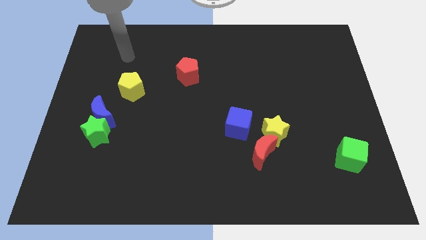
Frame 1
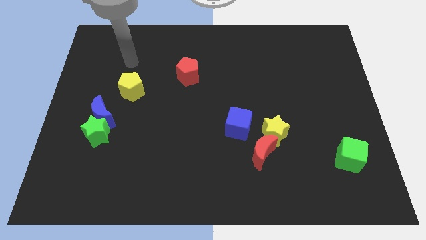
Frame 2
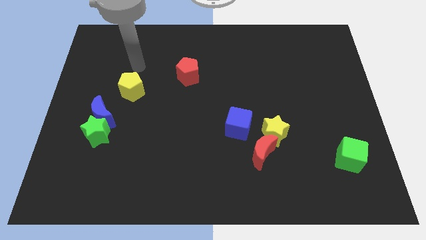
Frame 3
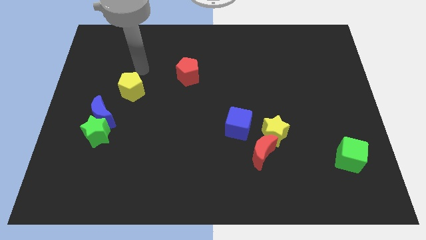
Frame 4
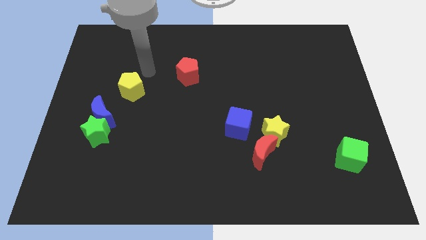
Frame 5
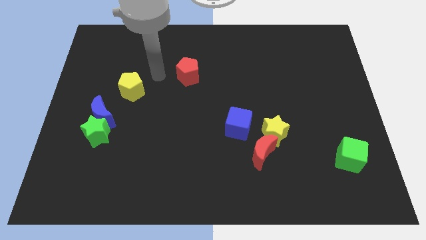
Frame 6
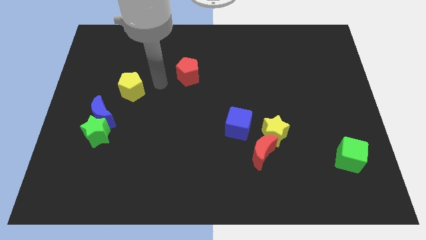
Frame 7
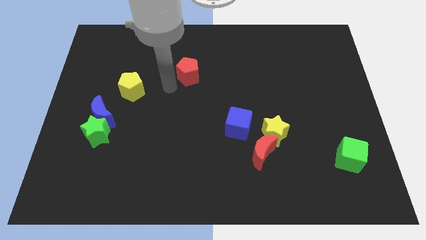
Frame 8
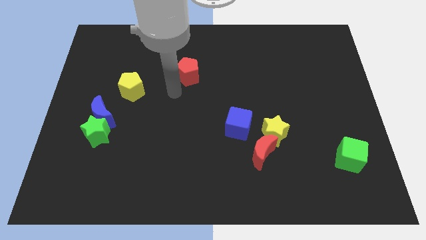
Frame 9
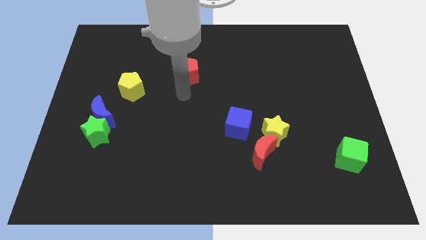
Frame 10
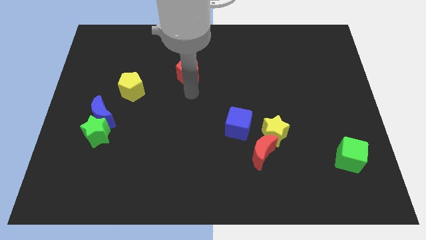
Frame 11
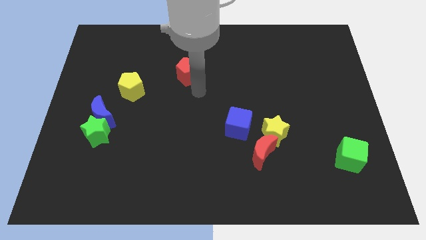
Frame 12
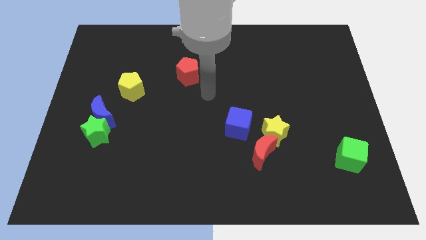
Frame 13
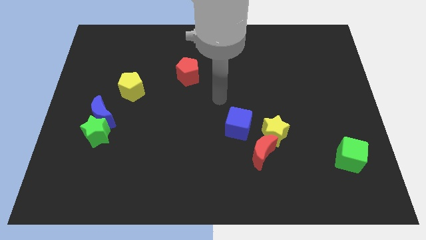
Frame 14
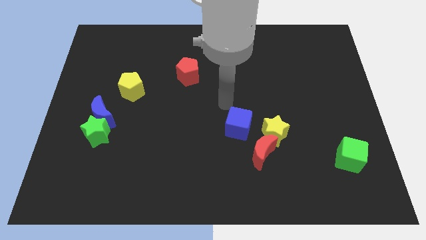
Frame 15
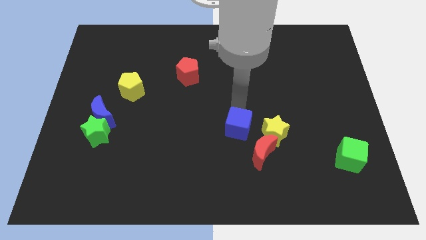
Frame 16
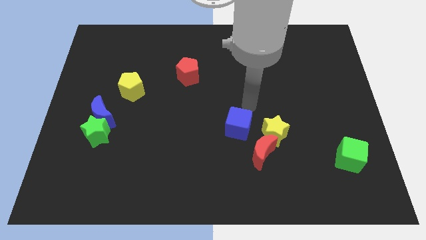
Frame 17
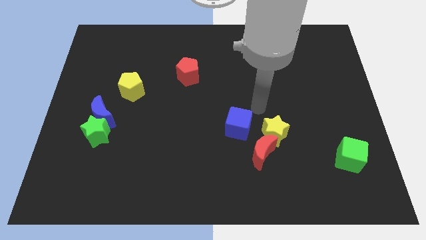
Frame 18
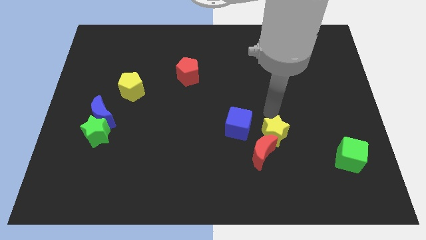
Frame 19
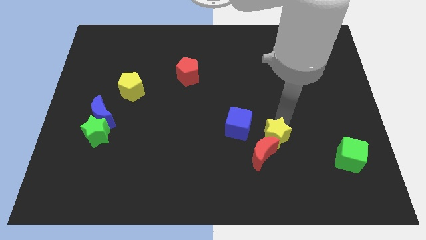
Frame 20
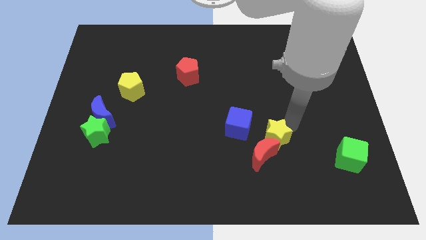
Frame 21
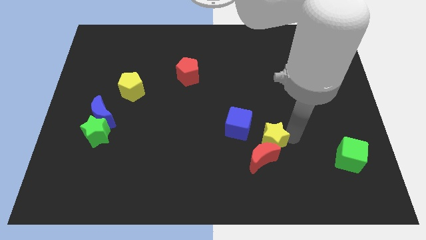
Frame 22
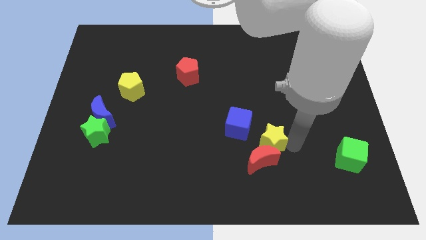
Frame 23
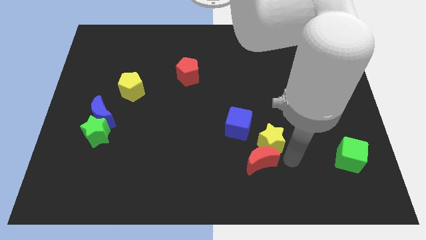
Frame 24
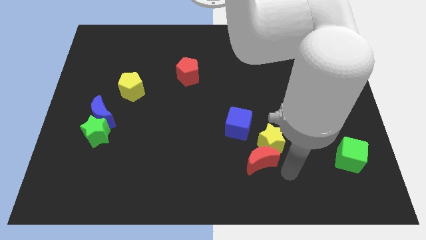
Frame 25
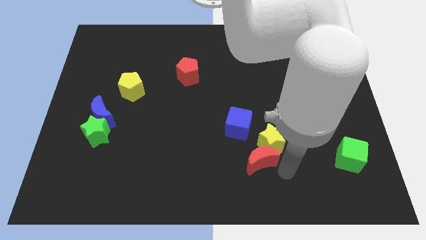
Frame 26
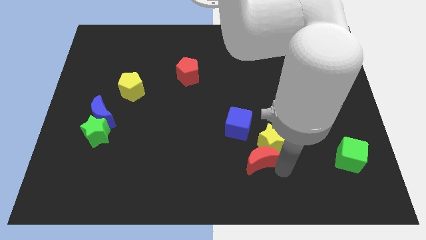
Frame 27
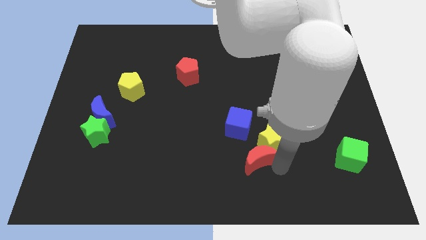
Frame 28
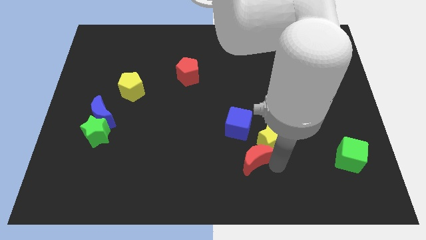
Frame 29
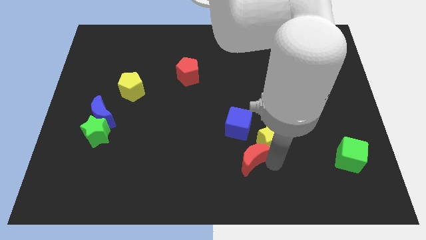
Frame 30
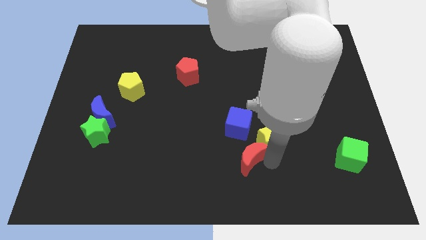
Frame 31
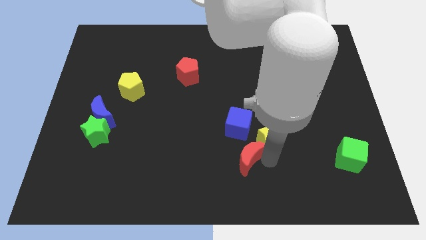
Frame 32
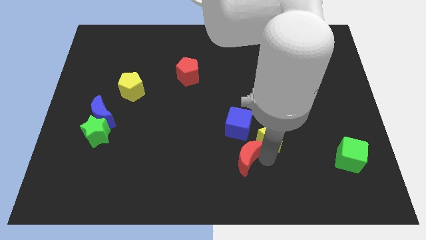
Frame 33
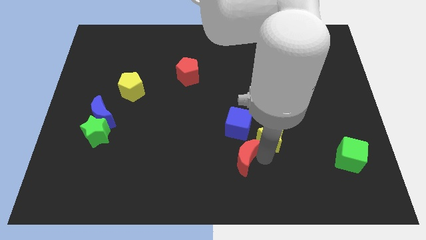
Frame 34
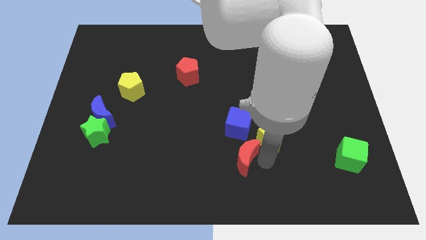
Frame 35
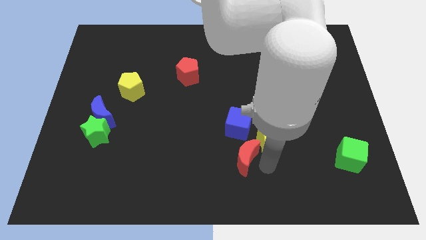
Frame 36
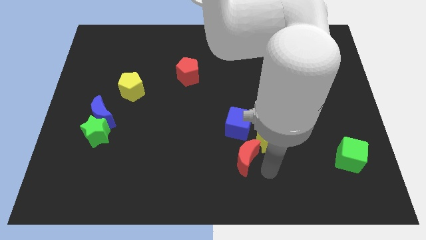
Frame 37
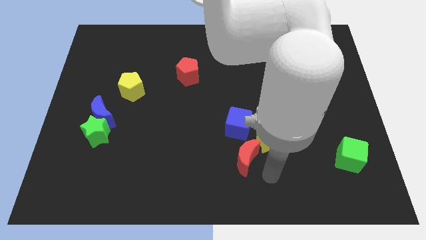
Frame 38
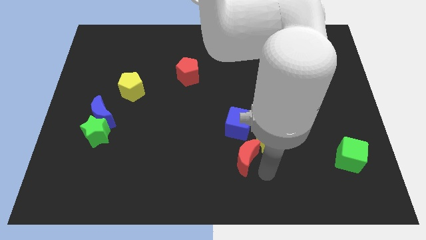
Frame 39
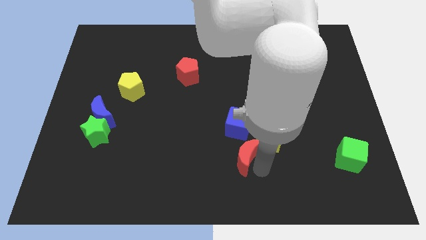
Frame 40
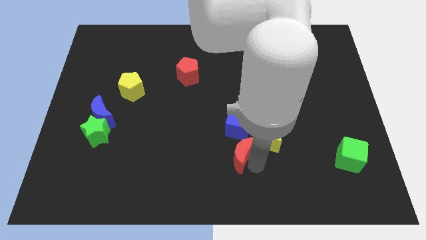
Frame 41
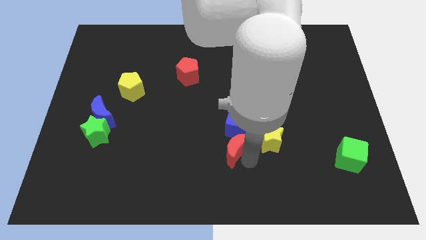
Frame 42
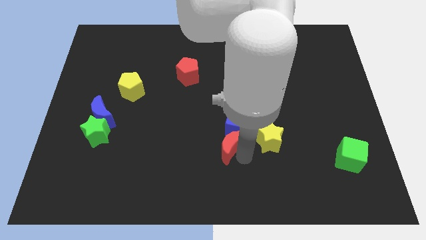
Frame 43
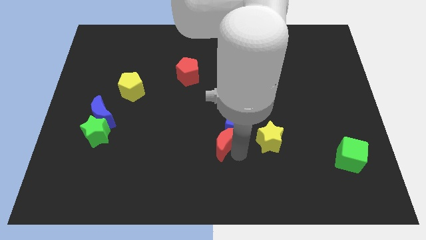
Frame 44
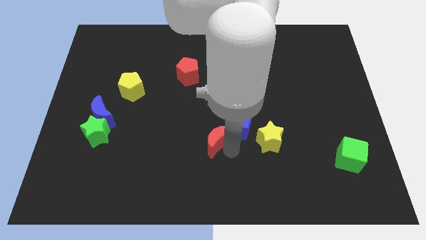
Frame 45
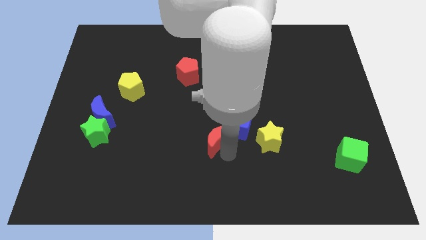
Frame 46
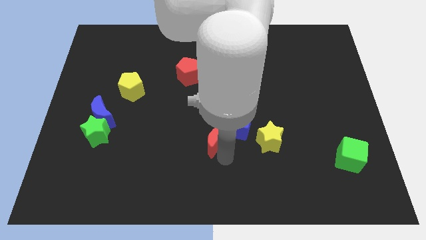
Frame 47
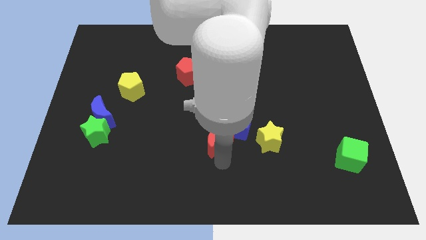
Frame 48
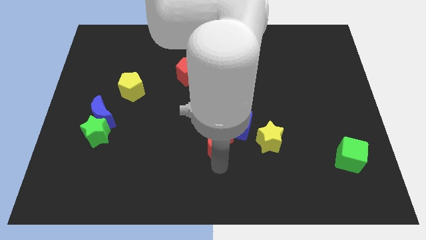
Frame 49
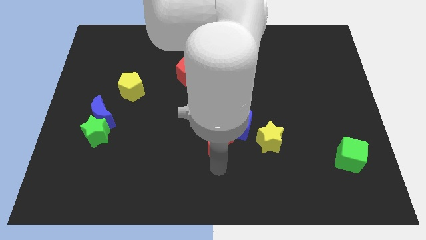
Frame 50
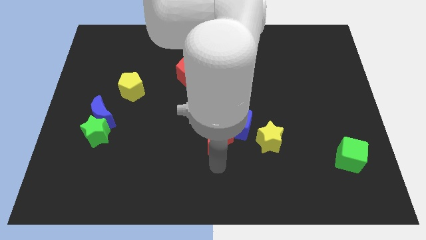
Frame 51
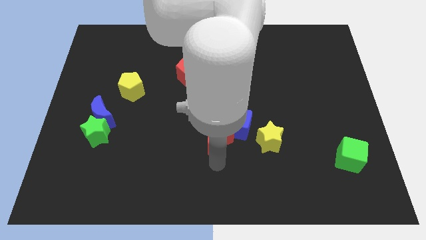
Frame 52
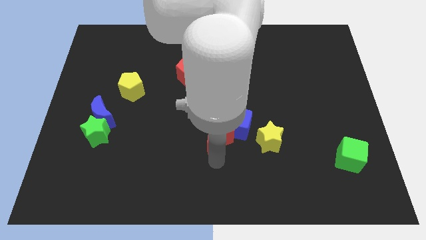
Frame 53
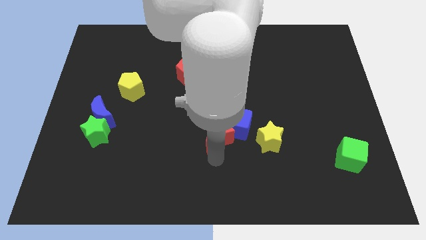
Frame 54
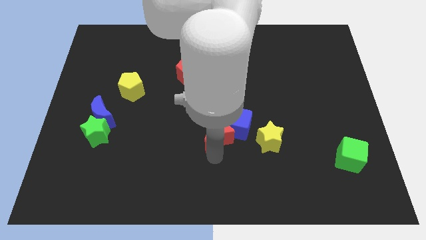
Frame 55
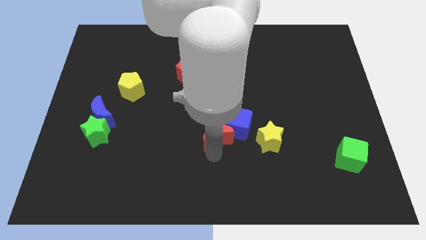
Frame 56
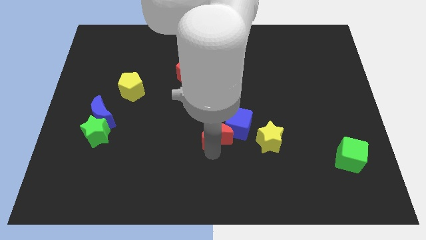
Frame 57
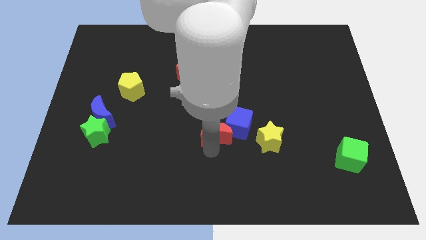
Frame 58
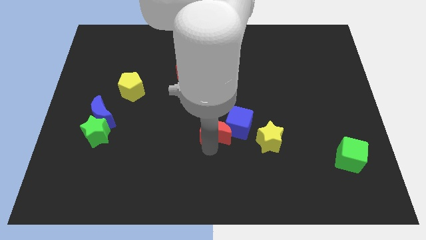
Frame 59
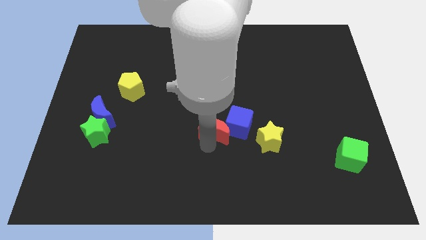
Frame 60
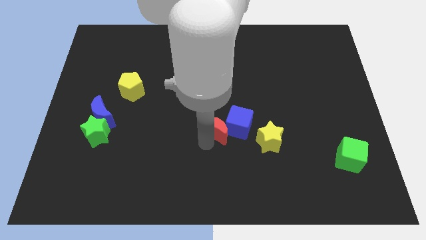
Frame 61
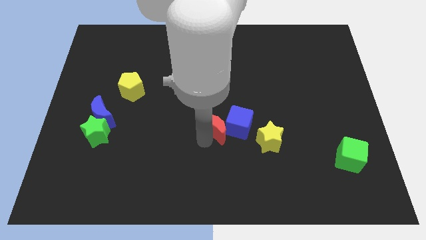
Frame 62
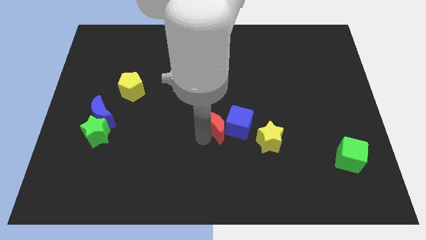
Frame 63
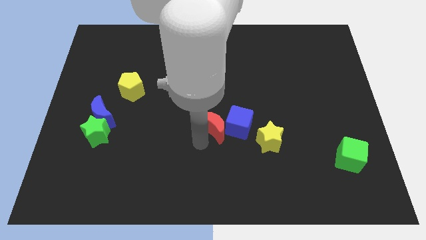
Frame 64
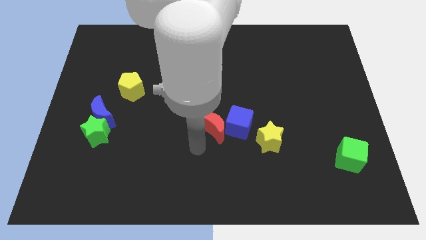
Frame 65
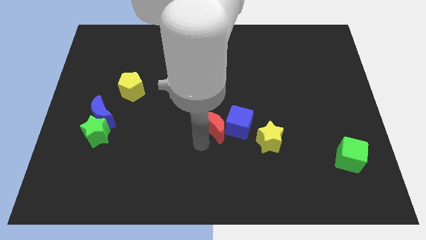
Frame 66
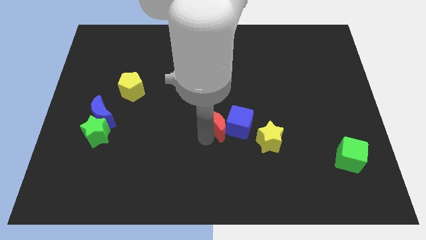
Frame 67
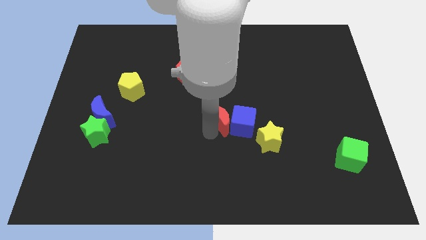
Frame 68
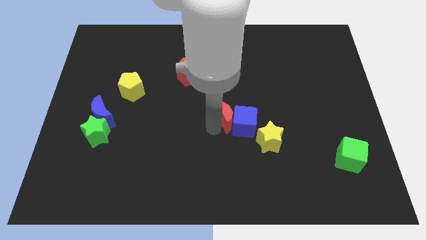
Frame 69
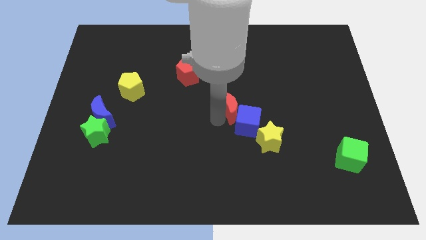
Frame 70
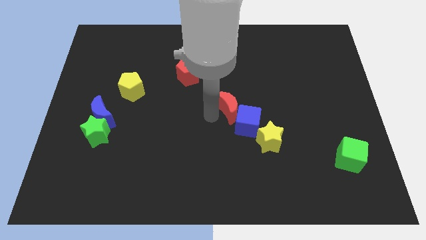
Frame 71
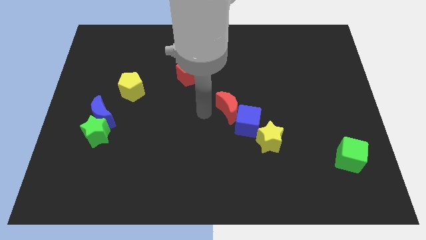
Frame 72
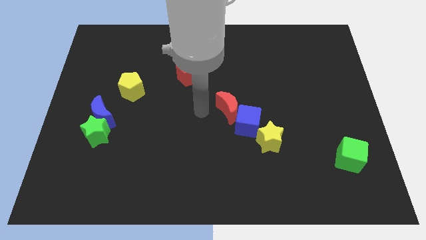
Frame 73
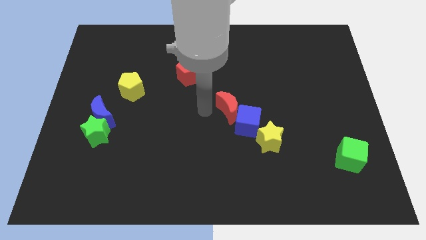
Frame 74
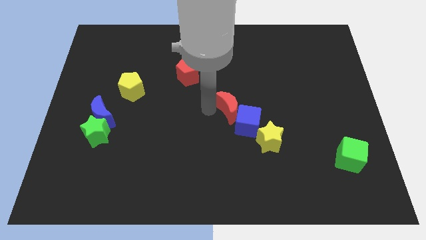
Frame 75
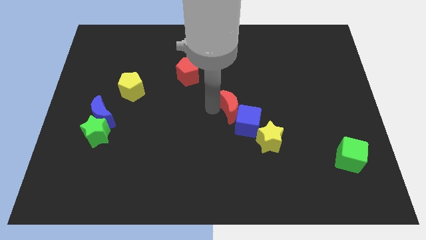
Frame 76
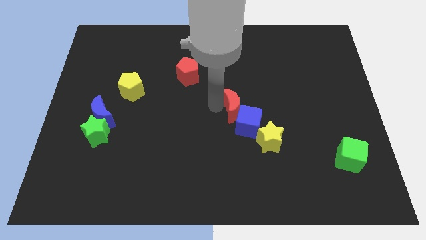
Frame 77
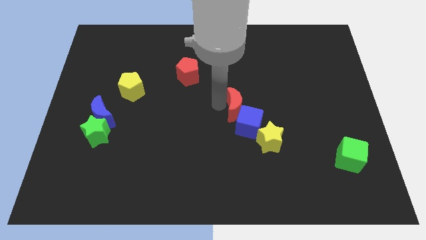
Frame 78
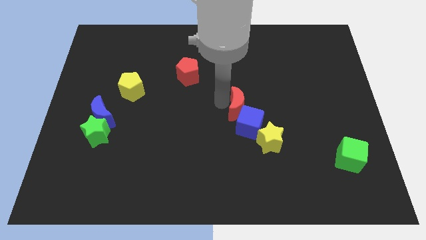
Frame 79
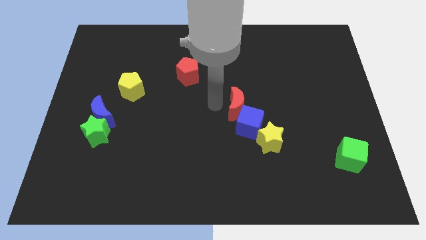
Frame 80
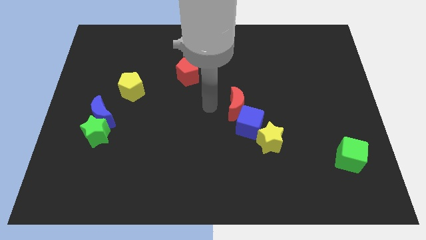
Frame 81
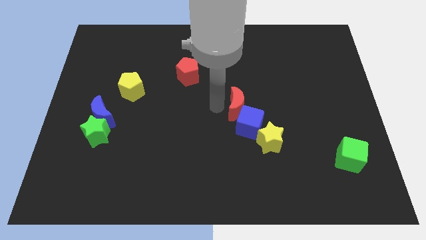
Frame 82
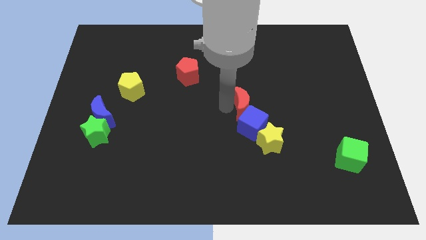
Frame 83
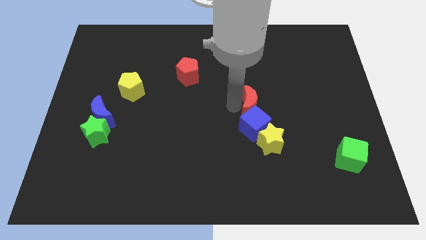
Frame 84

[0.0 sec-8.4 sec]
put the red moon to the top right of the blue cube
